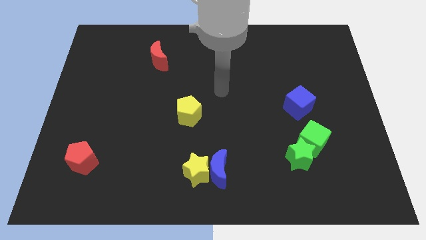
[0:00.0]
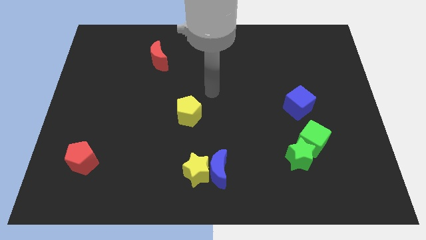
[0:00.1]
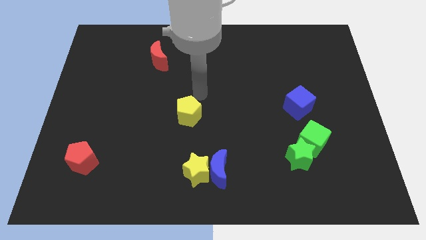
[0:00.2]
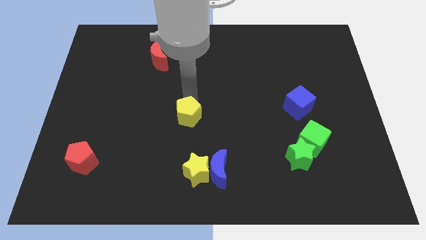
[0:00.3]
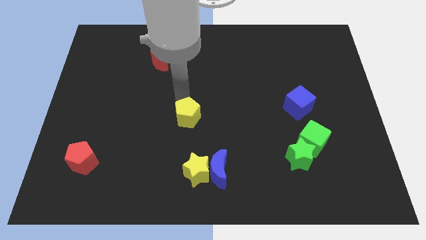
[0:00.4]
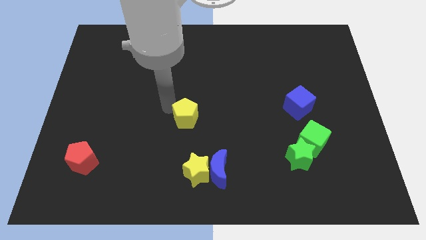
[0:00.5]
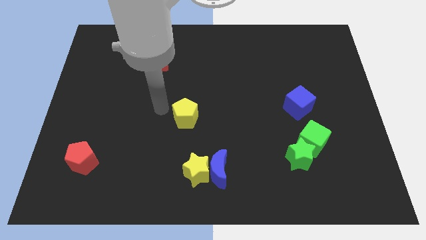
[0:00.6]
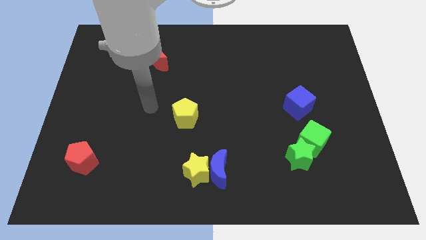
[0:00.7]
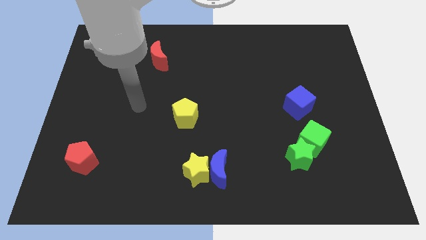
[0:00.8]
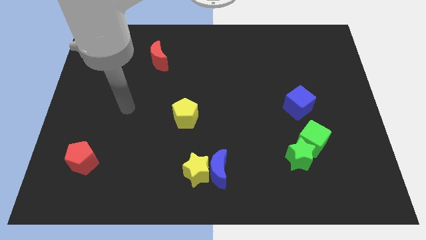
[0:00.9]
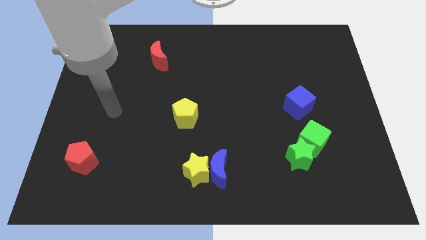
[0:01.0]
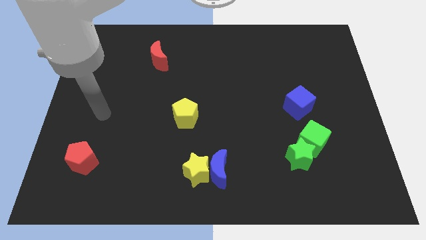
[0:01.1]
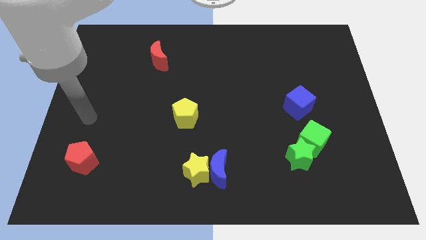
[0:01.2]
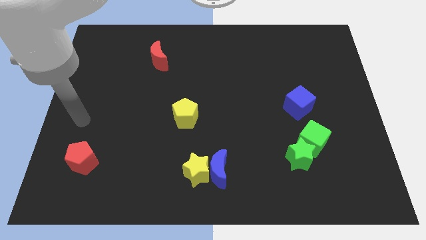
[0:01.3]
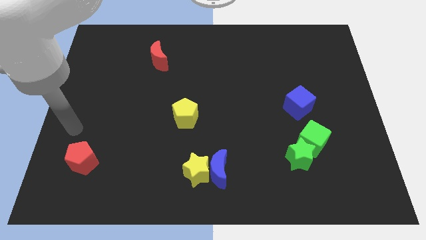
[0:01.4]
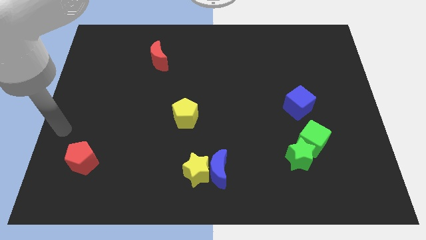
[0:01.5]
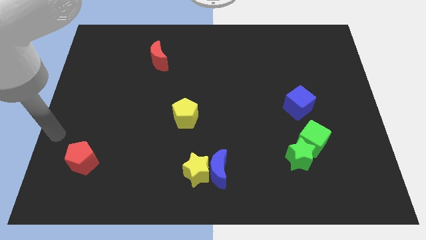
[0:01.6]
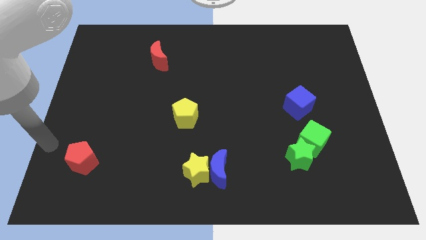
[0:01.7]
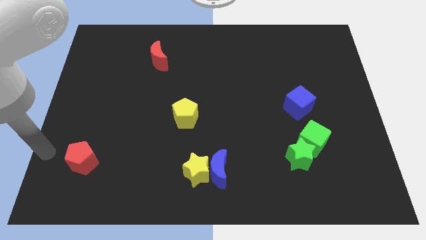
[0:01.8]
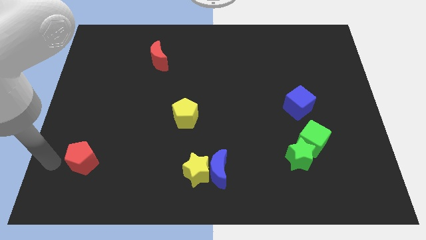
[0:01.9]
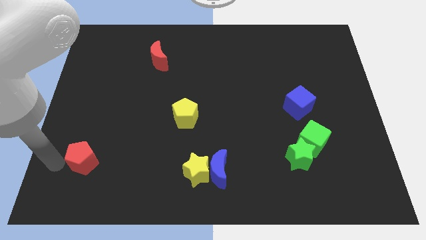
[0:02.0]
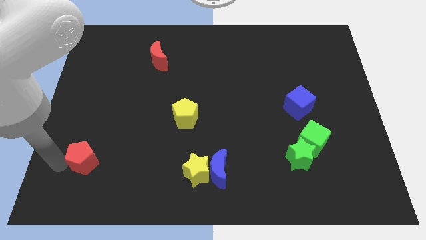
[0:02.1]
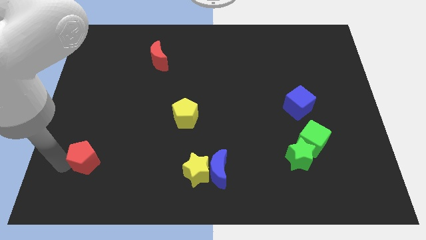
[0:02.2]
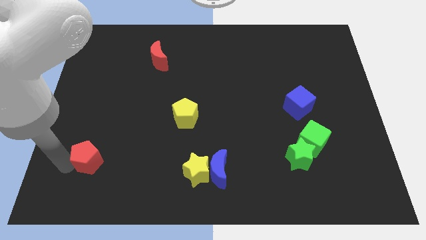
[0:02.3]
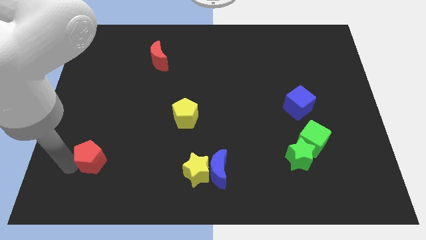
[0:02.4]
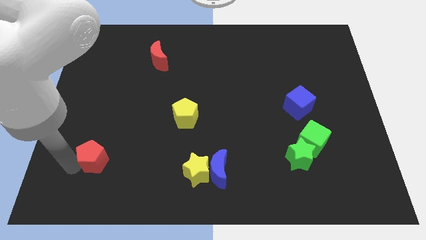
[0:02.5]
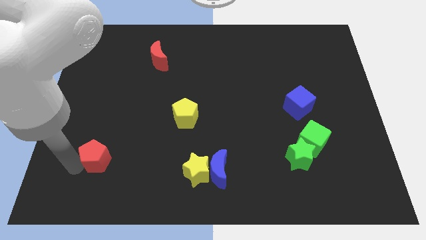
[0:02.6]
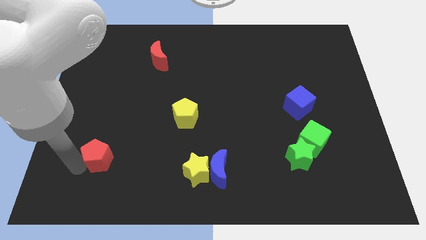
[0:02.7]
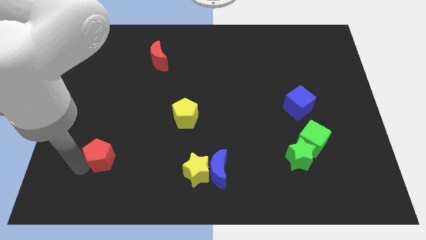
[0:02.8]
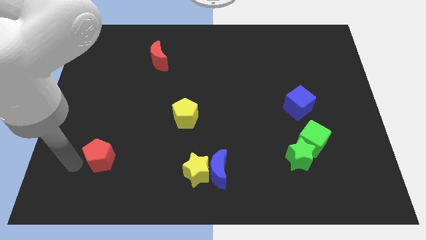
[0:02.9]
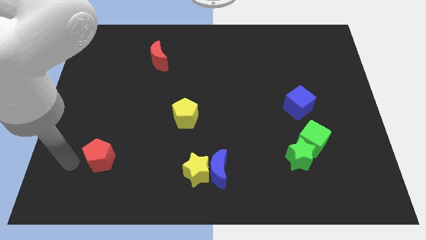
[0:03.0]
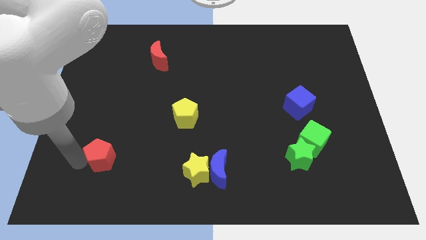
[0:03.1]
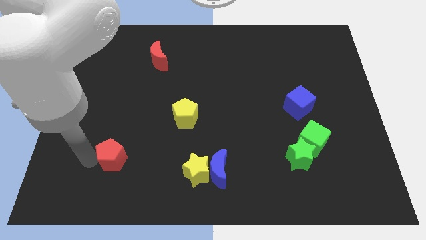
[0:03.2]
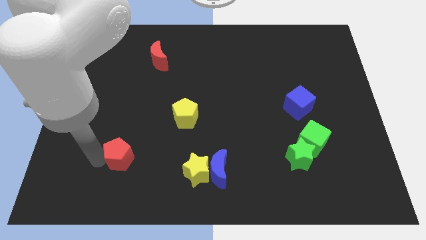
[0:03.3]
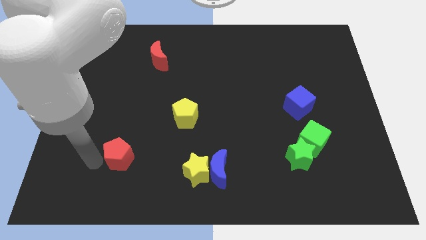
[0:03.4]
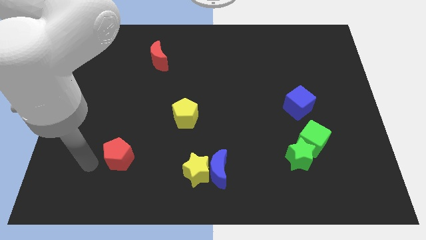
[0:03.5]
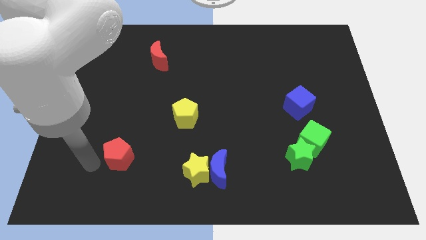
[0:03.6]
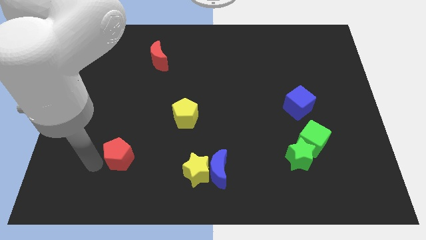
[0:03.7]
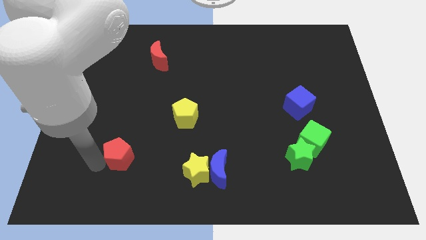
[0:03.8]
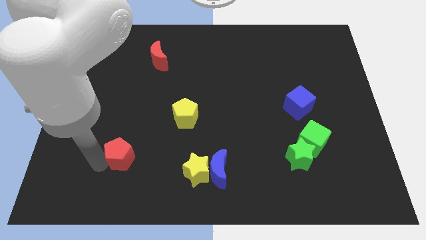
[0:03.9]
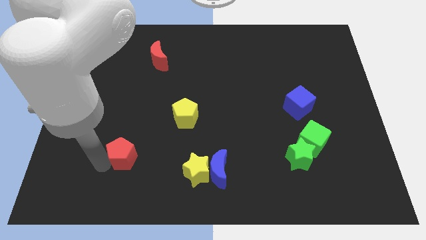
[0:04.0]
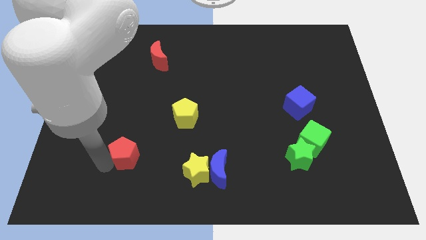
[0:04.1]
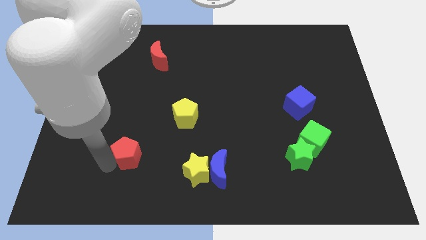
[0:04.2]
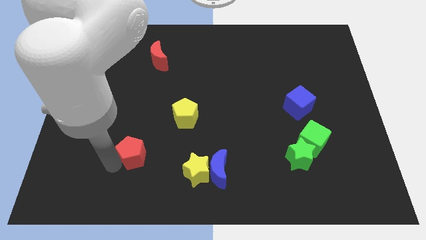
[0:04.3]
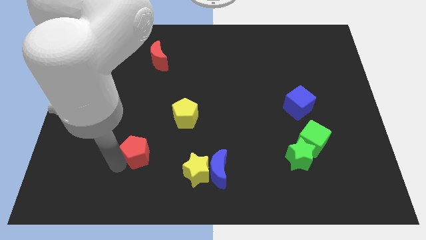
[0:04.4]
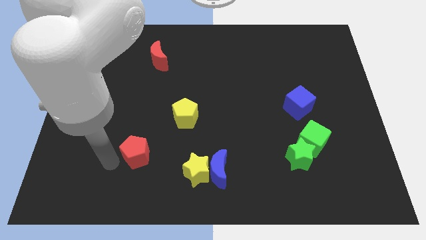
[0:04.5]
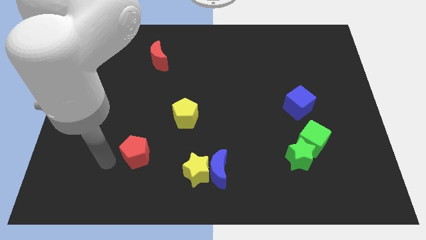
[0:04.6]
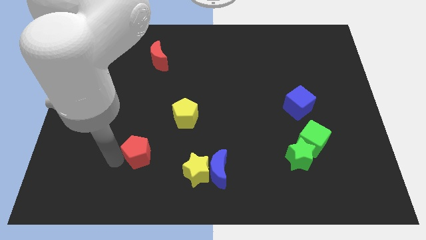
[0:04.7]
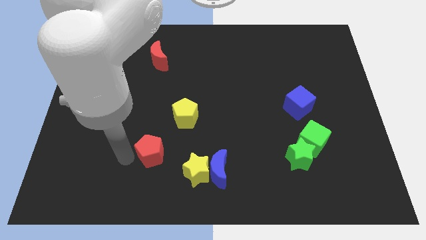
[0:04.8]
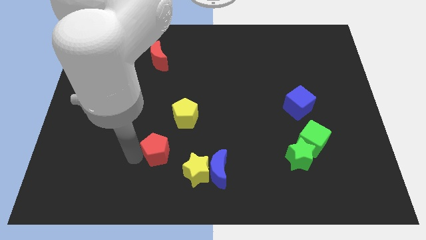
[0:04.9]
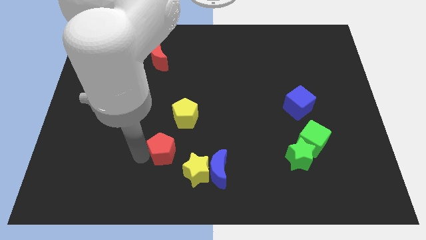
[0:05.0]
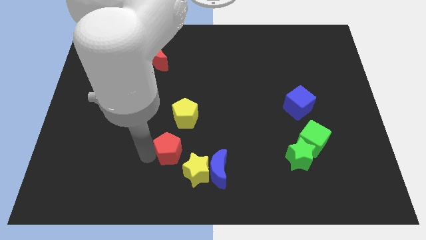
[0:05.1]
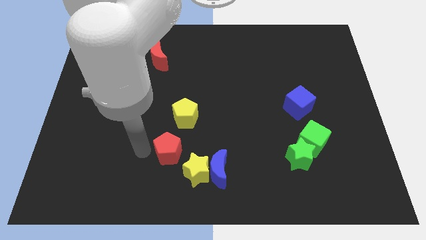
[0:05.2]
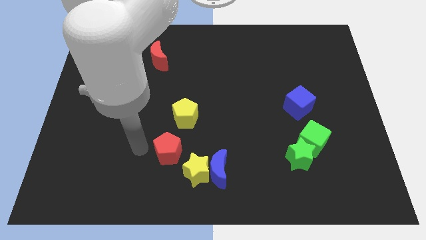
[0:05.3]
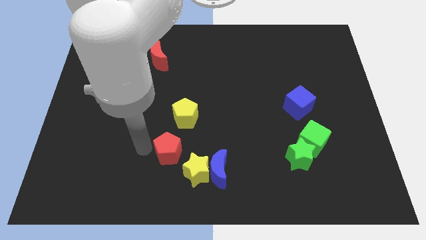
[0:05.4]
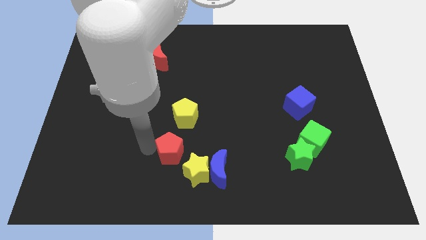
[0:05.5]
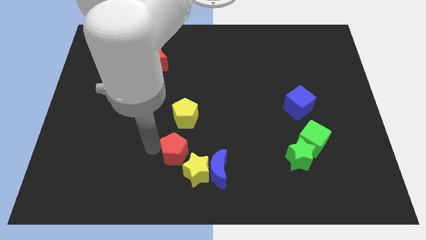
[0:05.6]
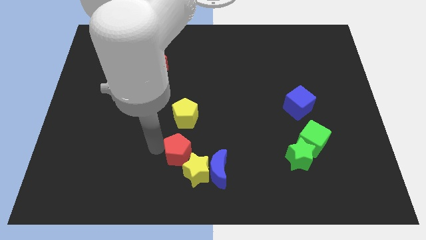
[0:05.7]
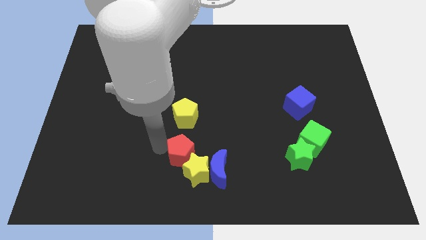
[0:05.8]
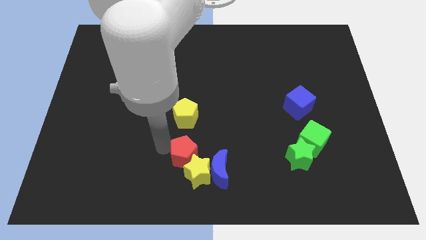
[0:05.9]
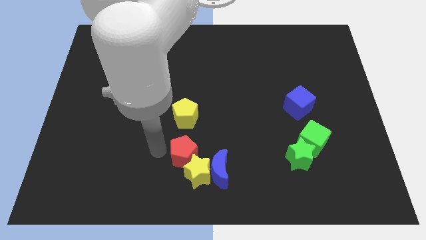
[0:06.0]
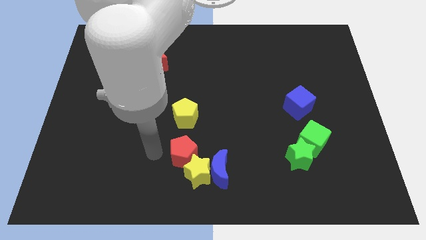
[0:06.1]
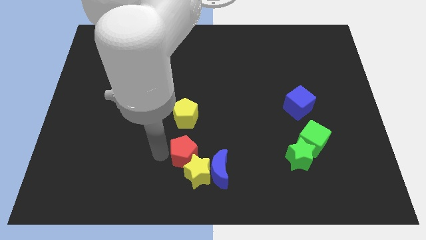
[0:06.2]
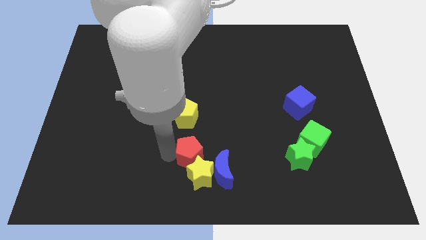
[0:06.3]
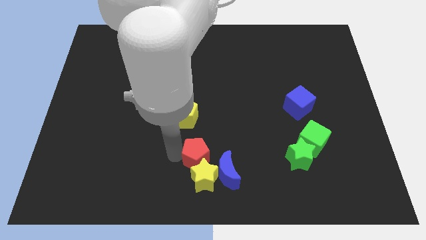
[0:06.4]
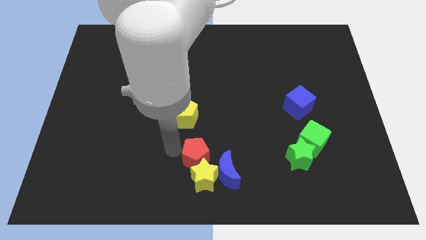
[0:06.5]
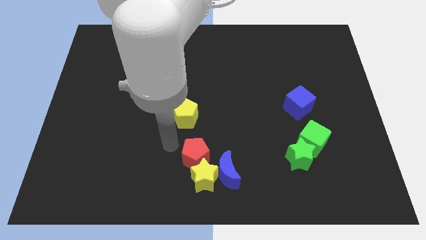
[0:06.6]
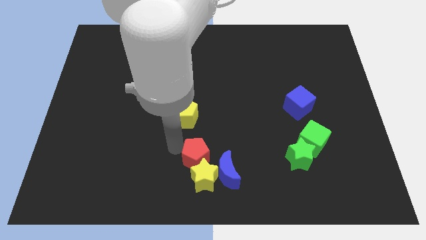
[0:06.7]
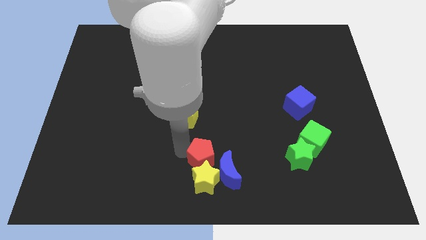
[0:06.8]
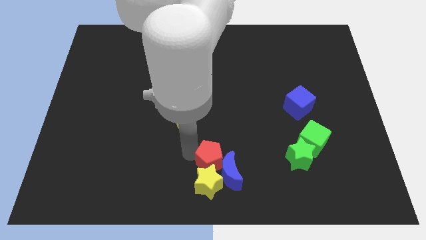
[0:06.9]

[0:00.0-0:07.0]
put the red pentagon close to the blue moon

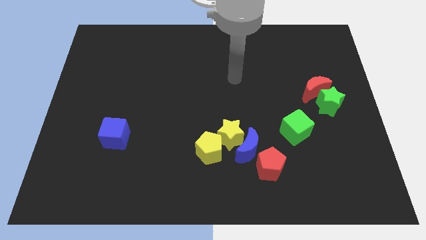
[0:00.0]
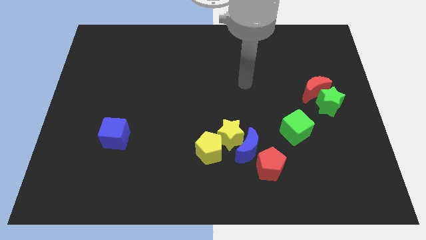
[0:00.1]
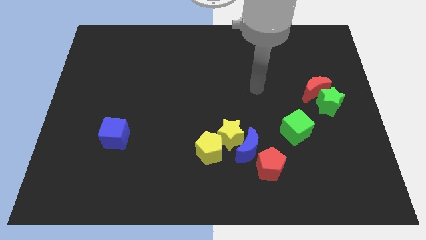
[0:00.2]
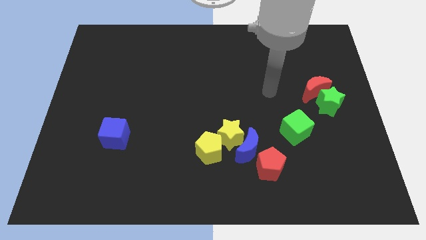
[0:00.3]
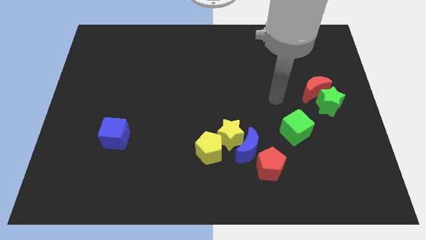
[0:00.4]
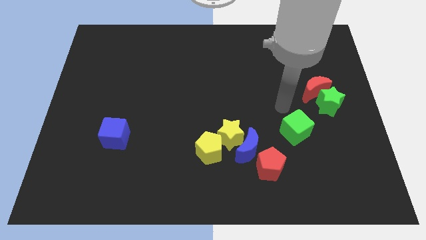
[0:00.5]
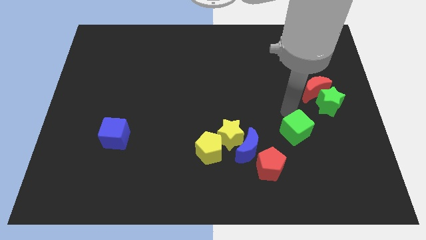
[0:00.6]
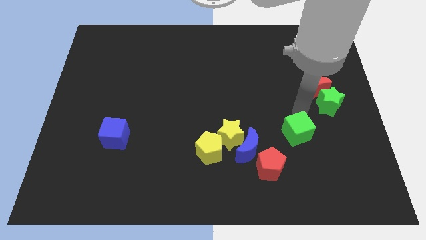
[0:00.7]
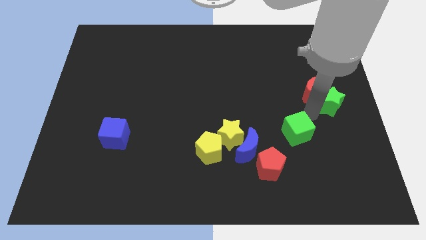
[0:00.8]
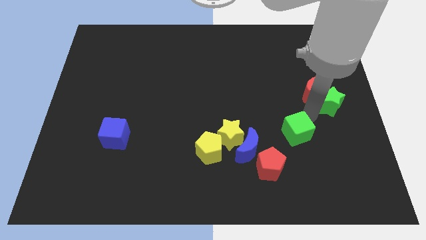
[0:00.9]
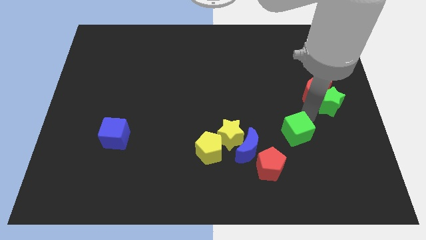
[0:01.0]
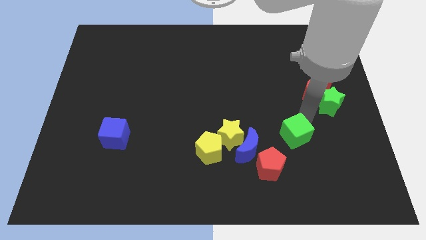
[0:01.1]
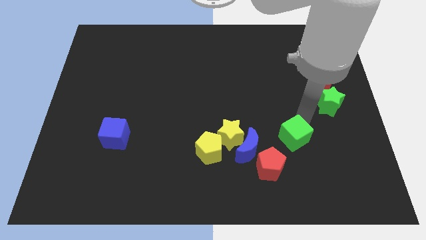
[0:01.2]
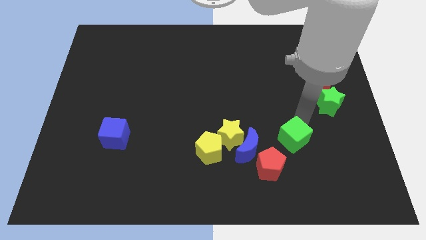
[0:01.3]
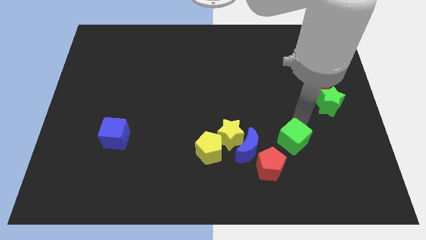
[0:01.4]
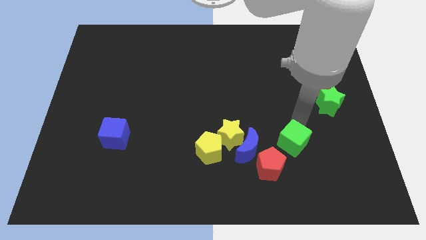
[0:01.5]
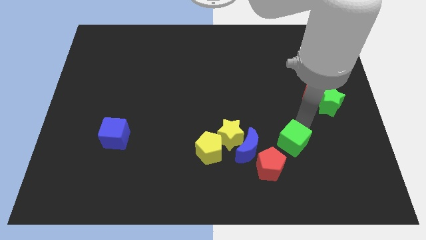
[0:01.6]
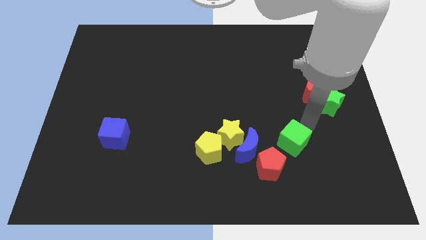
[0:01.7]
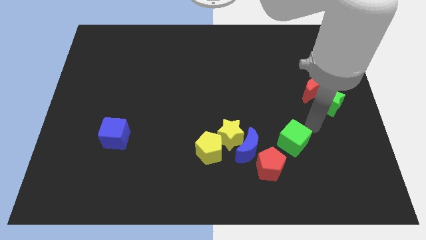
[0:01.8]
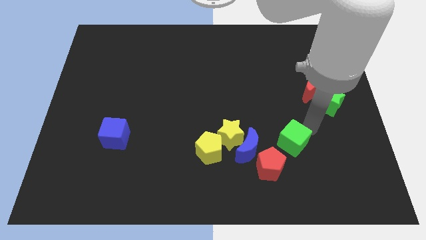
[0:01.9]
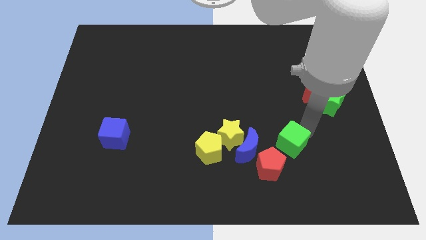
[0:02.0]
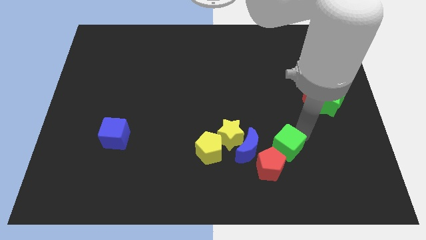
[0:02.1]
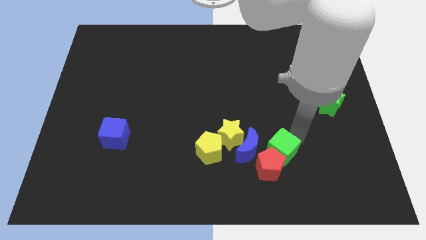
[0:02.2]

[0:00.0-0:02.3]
slide the green cube close to the red pentagon
